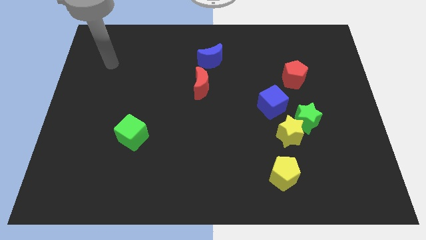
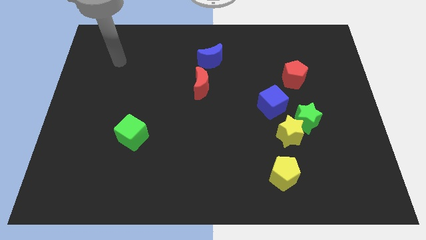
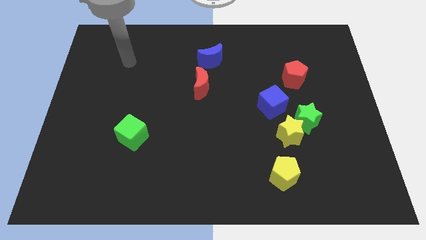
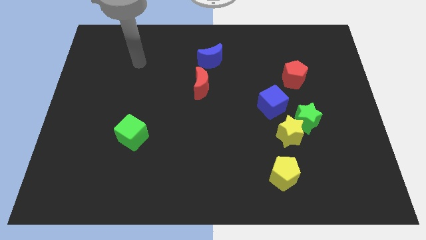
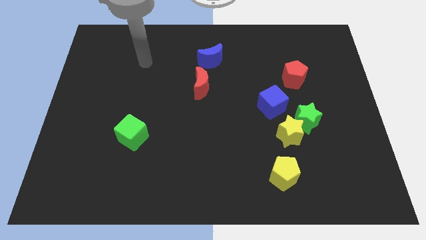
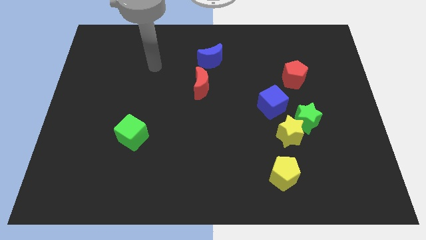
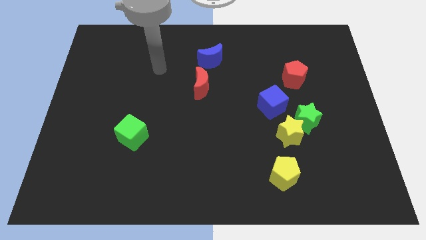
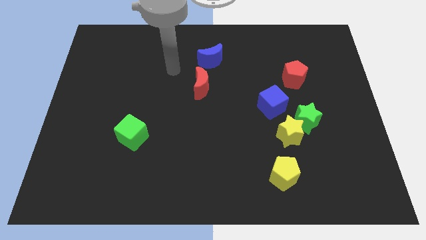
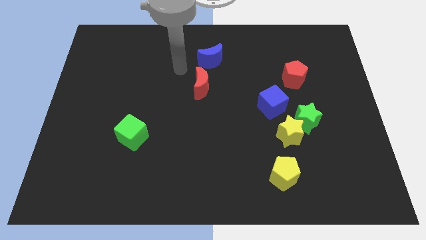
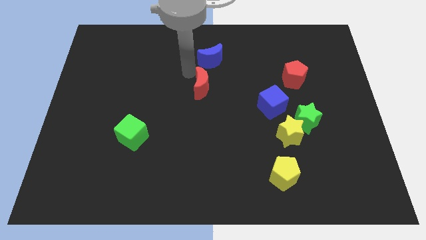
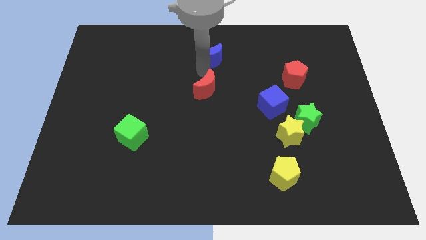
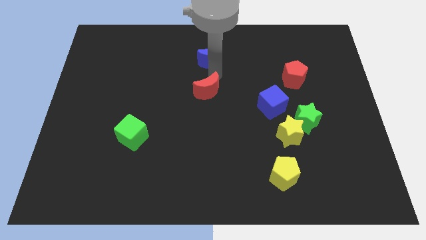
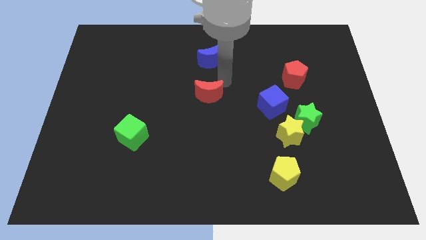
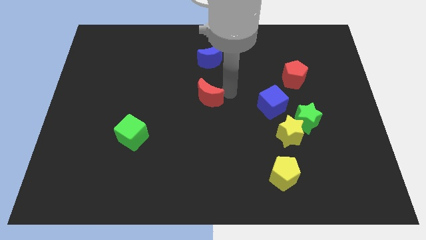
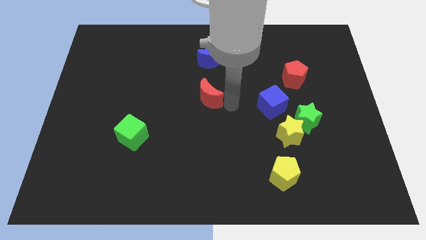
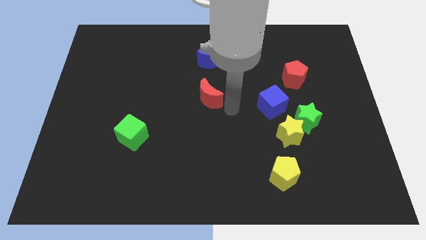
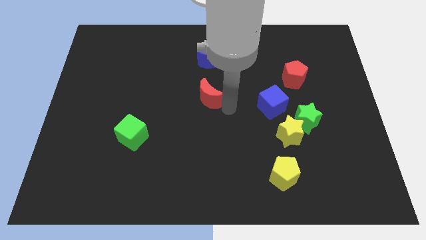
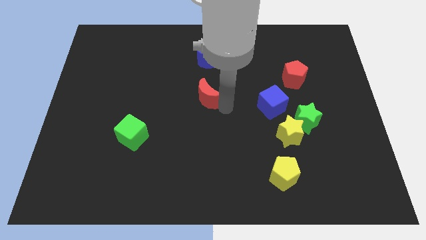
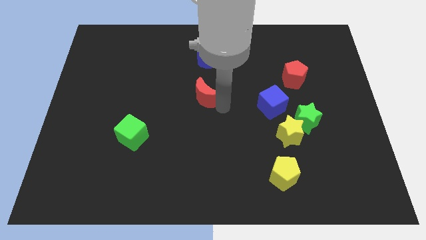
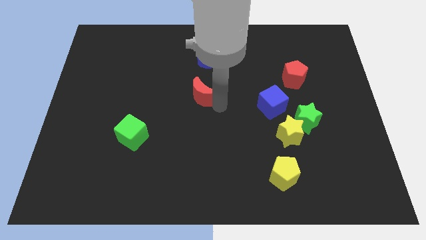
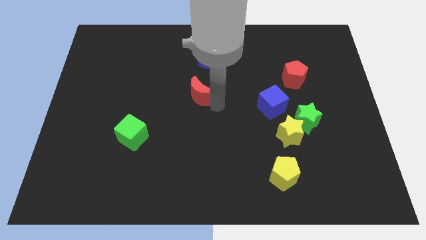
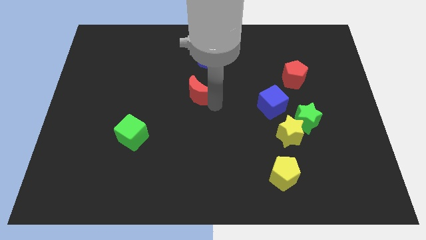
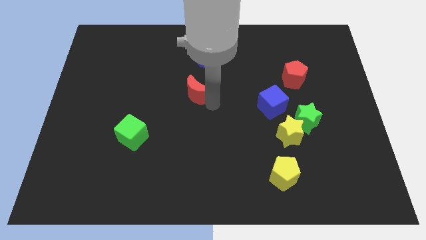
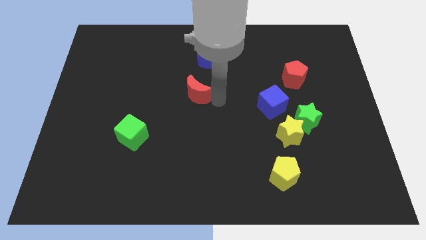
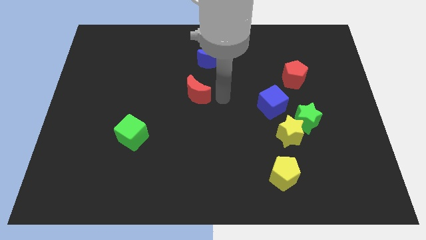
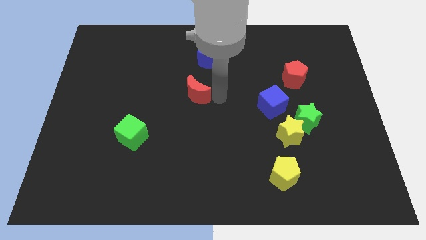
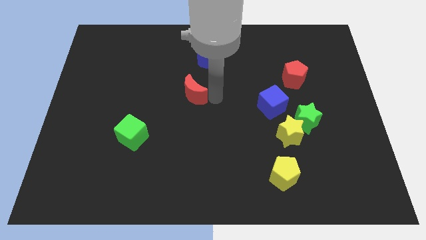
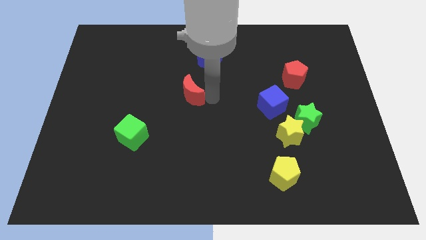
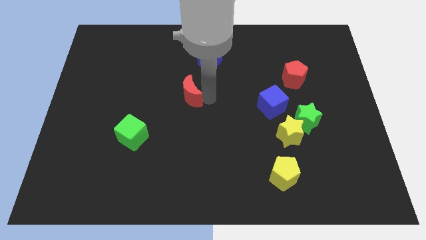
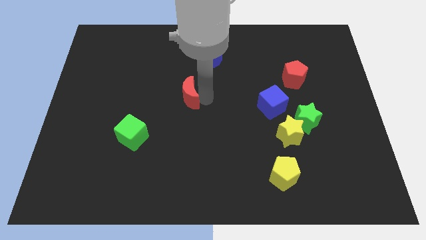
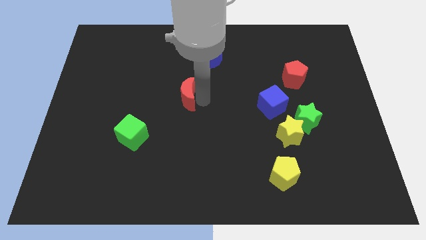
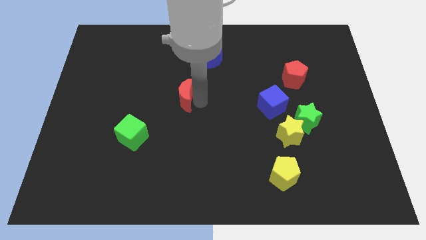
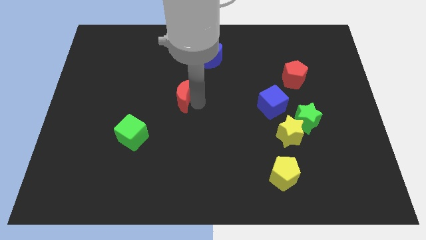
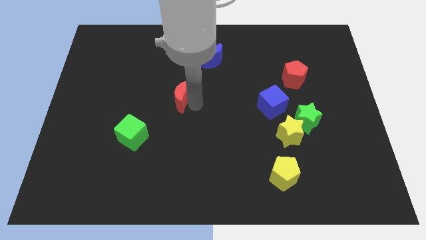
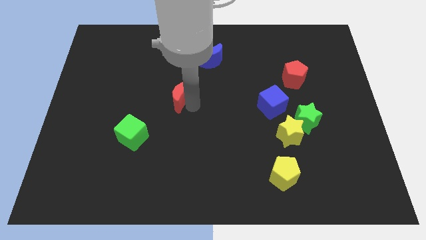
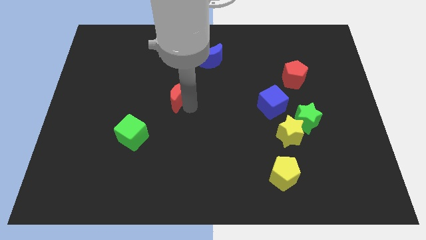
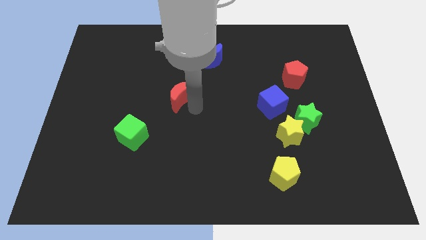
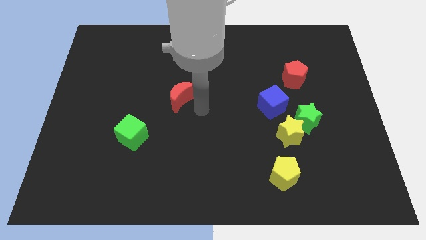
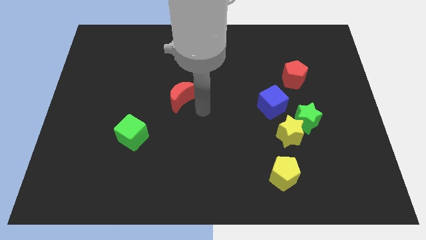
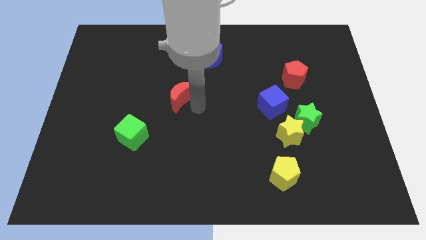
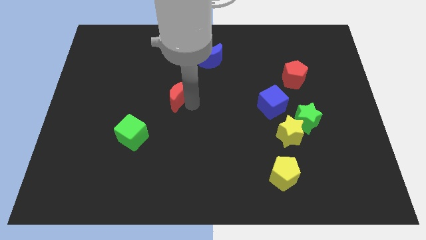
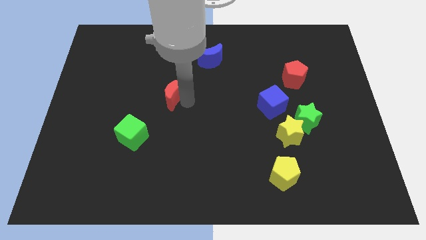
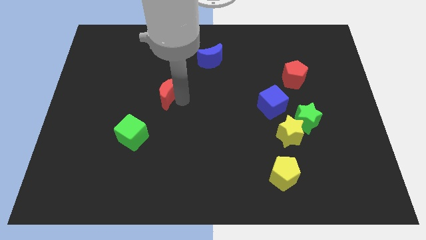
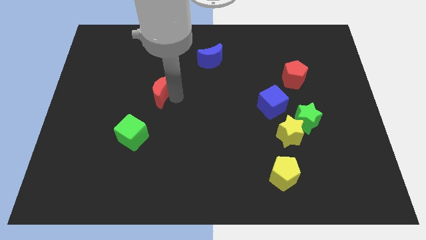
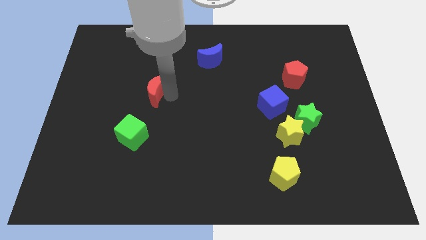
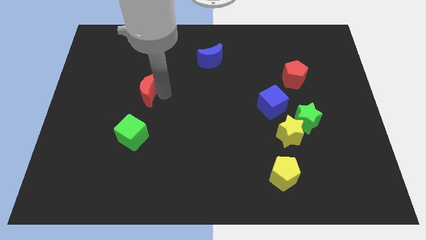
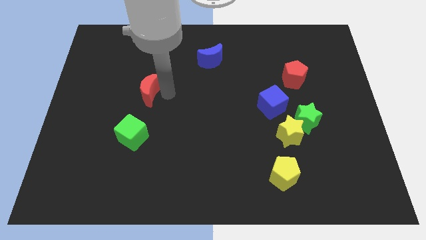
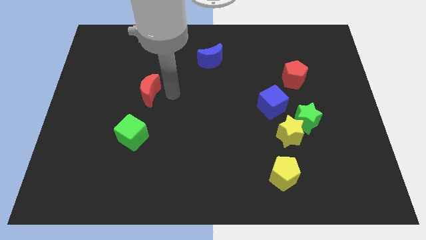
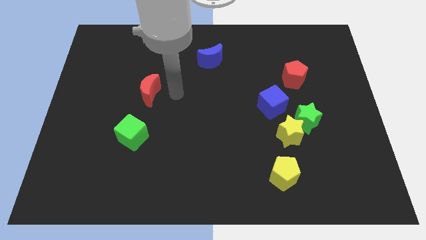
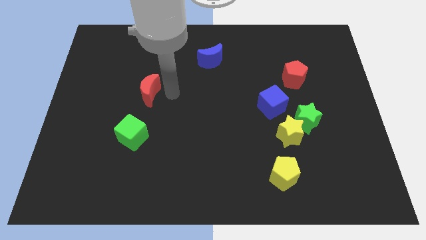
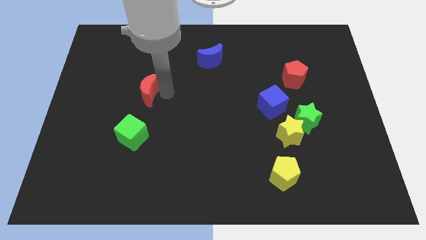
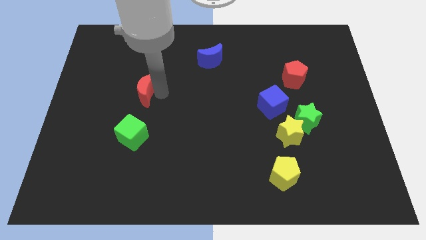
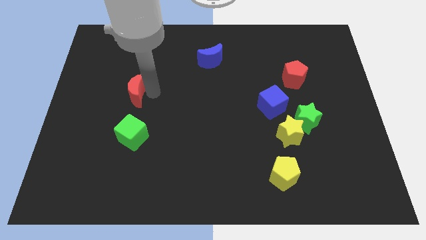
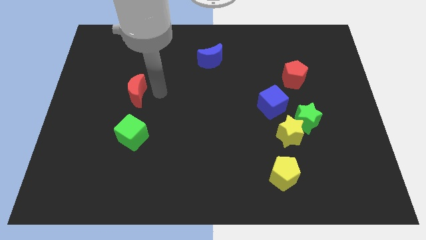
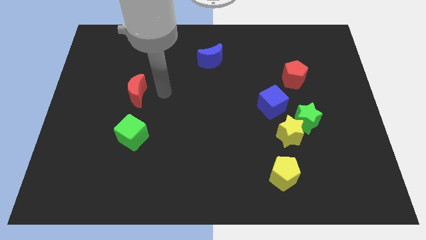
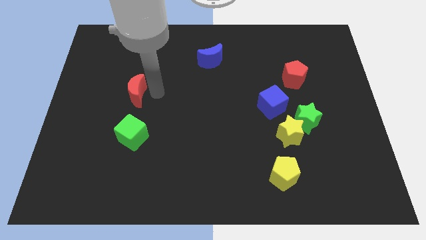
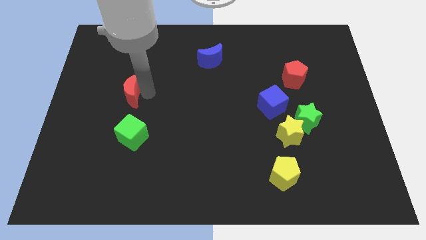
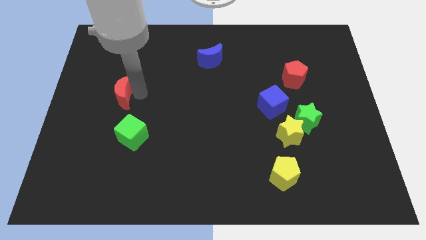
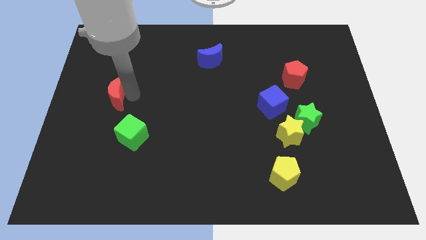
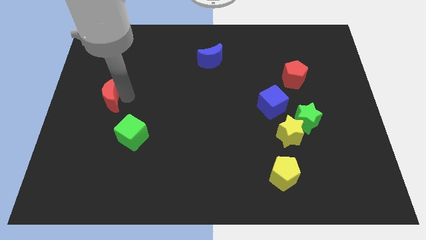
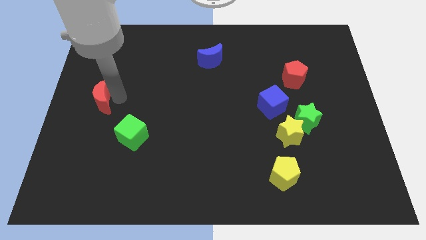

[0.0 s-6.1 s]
move the red moon to the left side of the board
